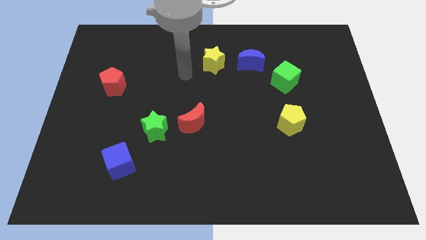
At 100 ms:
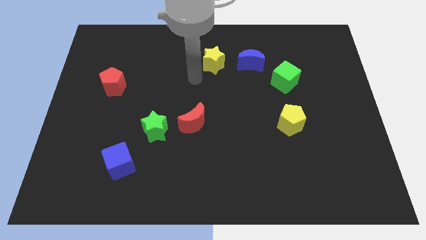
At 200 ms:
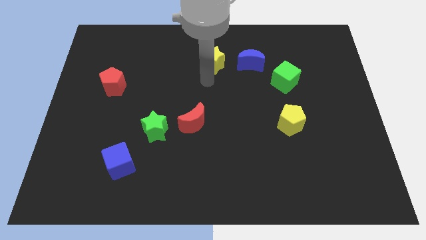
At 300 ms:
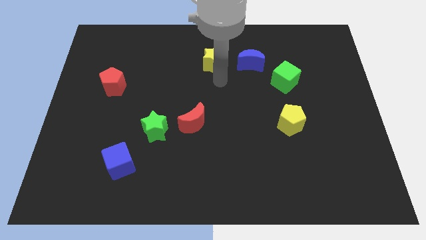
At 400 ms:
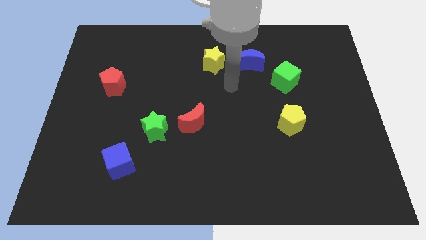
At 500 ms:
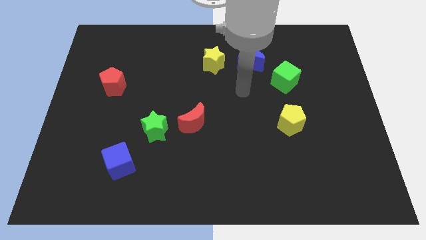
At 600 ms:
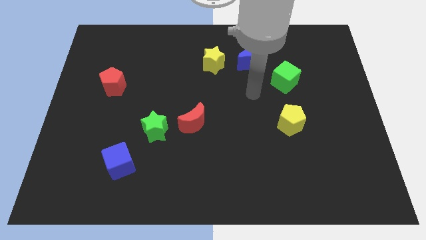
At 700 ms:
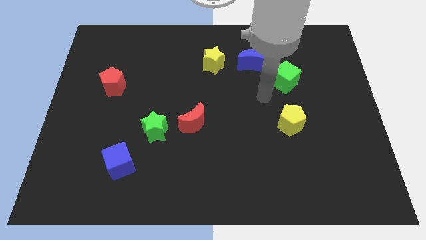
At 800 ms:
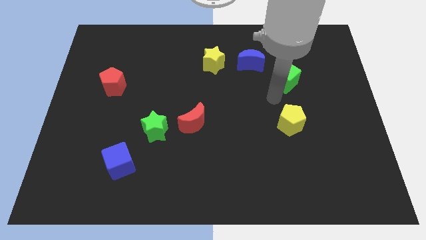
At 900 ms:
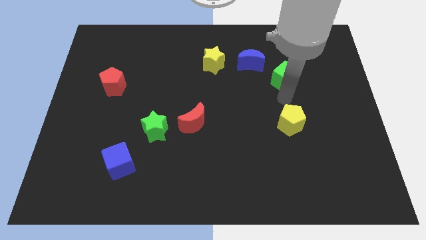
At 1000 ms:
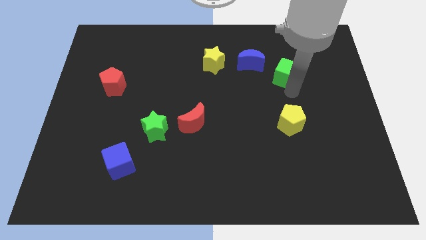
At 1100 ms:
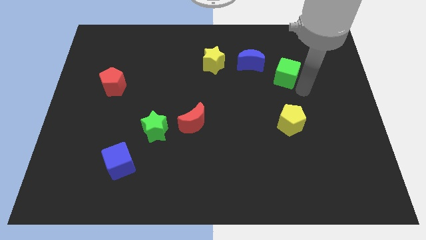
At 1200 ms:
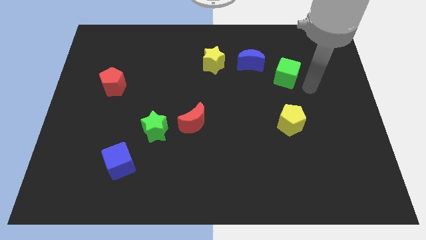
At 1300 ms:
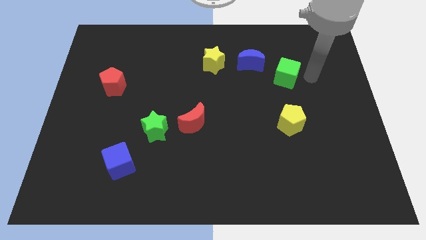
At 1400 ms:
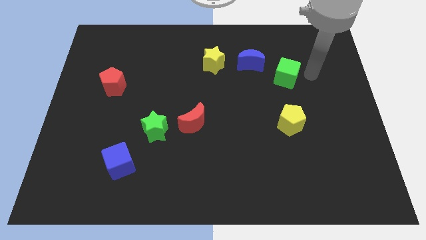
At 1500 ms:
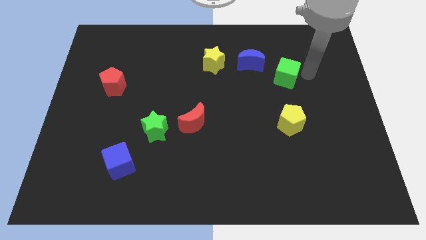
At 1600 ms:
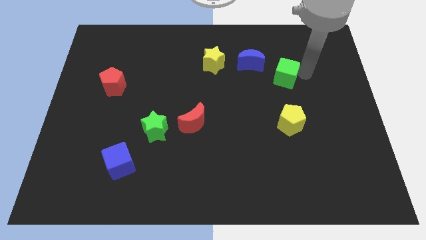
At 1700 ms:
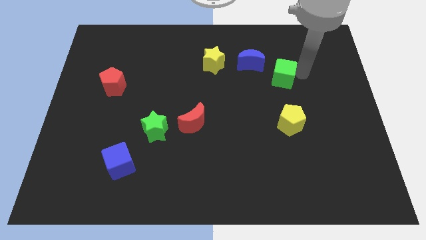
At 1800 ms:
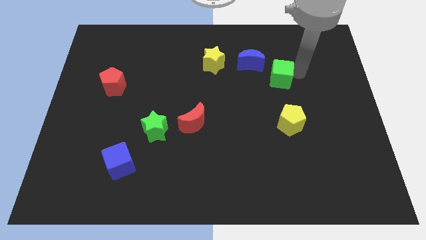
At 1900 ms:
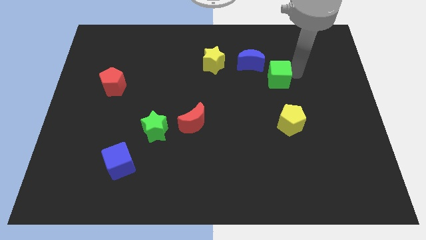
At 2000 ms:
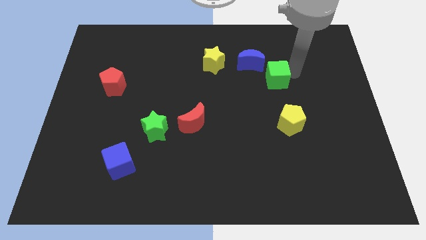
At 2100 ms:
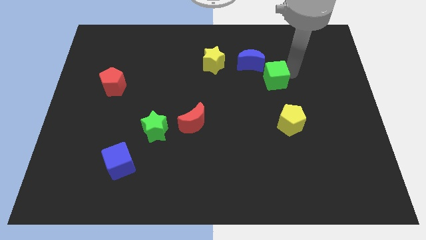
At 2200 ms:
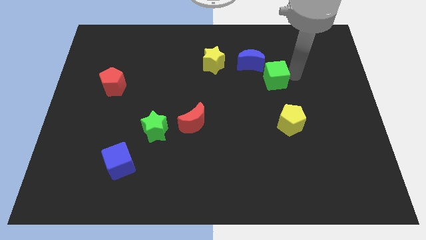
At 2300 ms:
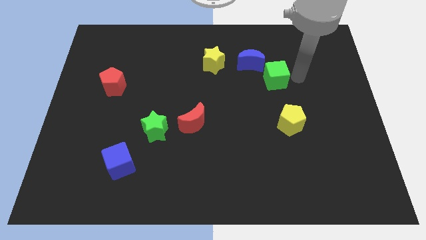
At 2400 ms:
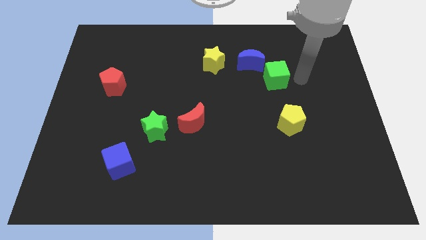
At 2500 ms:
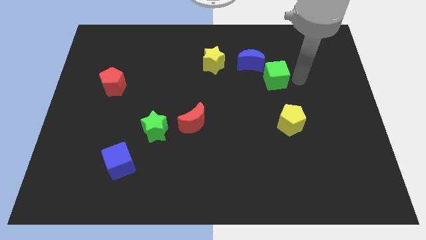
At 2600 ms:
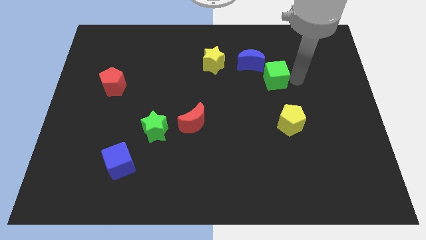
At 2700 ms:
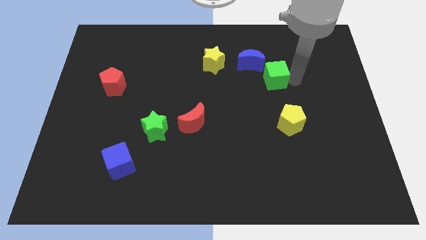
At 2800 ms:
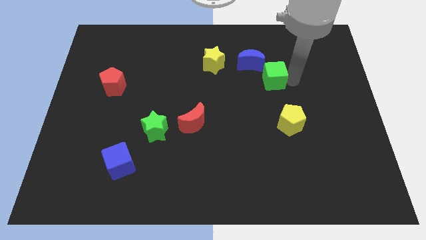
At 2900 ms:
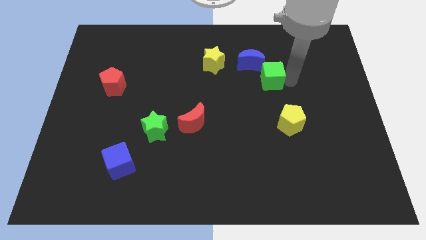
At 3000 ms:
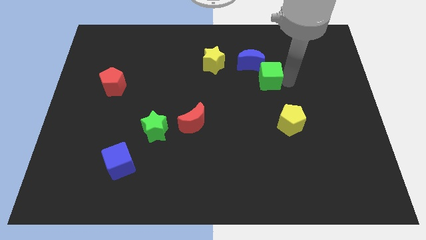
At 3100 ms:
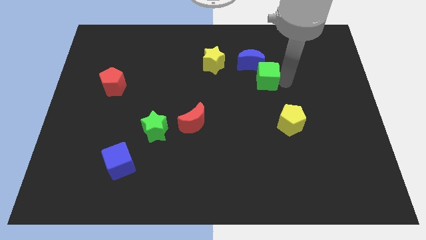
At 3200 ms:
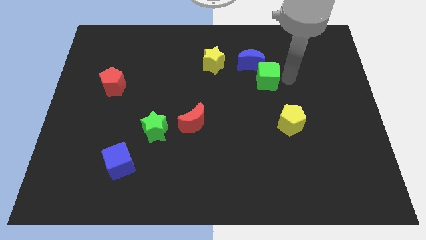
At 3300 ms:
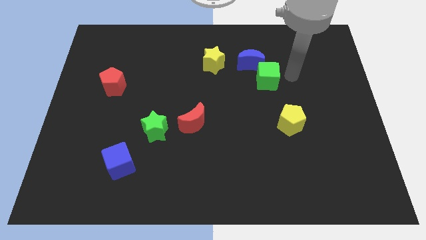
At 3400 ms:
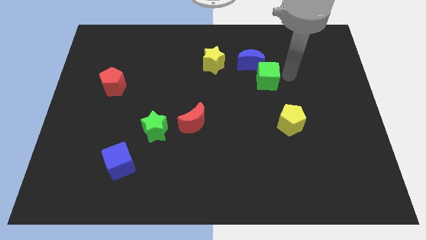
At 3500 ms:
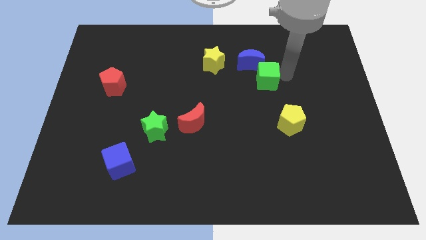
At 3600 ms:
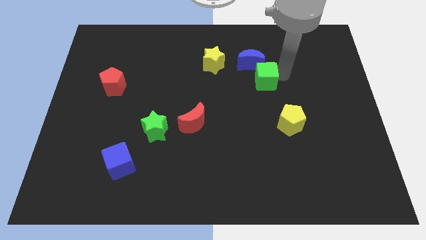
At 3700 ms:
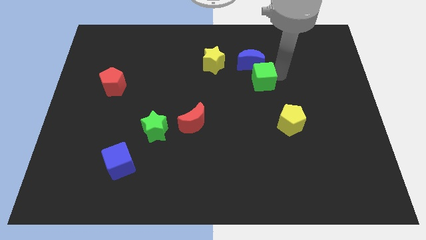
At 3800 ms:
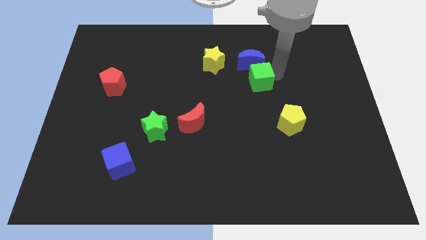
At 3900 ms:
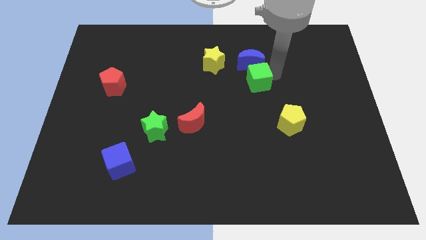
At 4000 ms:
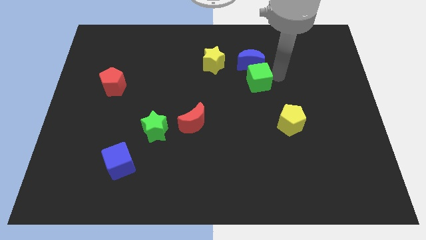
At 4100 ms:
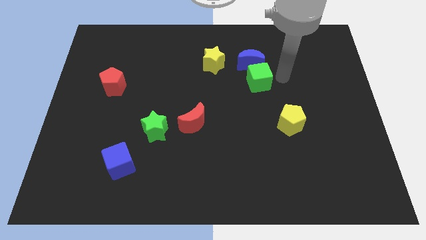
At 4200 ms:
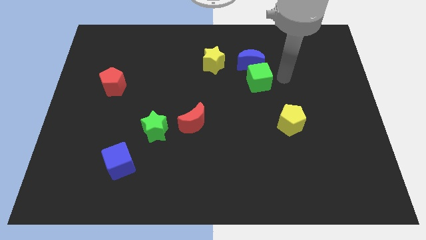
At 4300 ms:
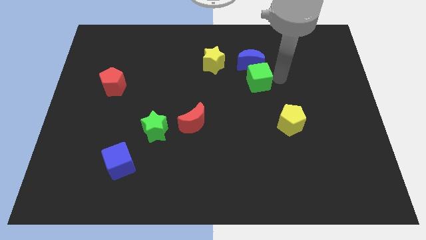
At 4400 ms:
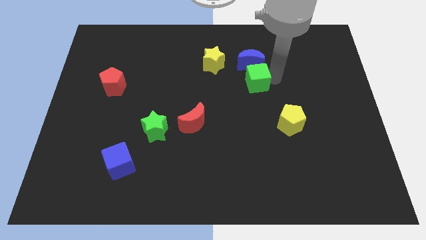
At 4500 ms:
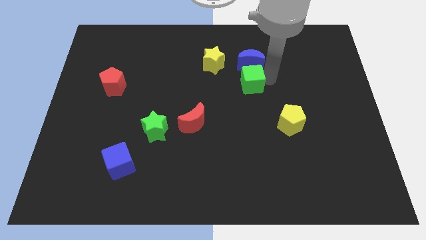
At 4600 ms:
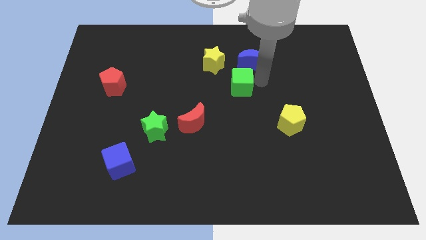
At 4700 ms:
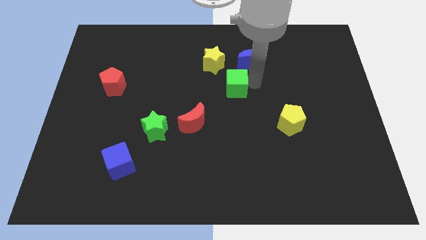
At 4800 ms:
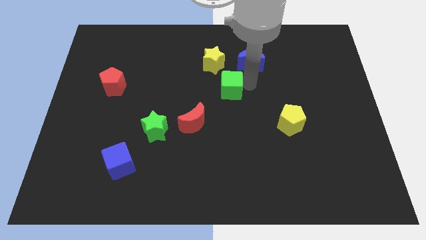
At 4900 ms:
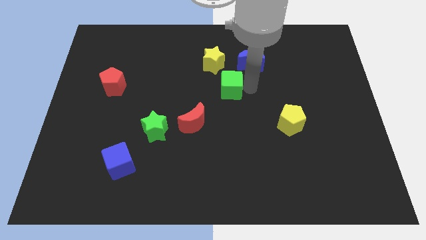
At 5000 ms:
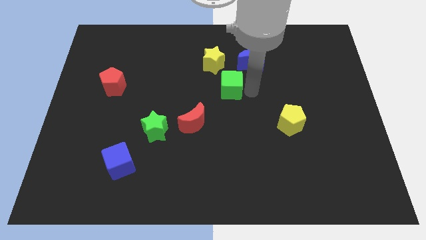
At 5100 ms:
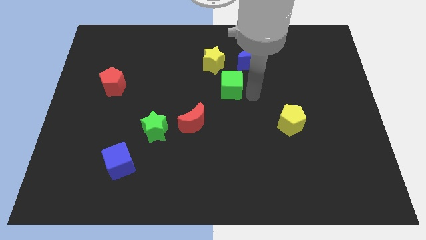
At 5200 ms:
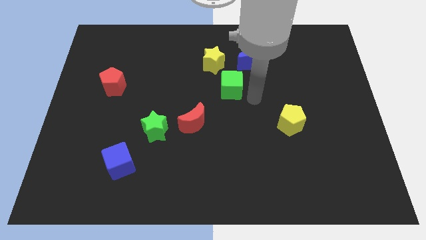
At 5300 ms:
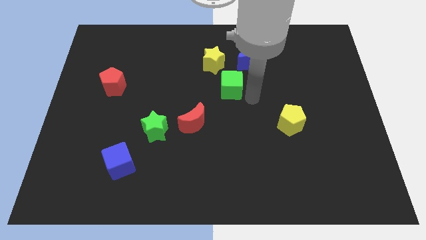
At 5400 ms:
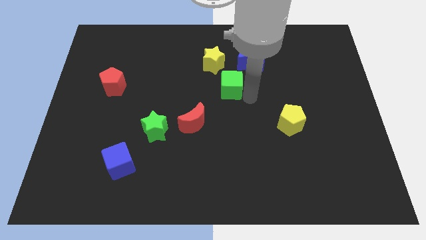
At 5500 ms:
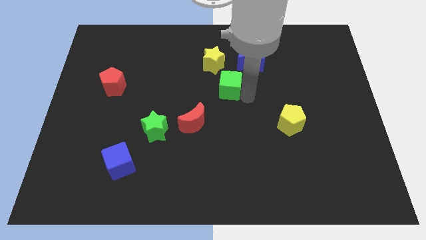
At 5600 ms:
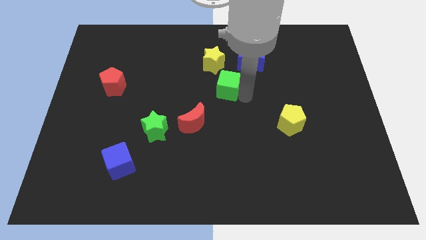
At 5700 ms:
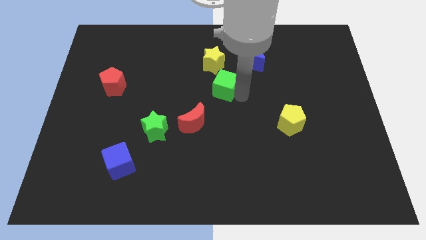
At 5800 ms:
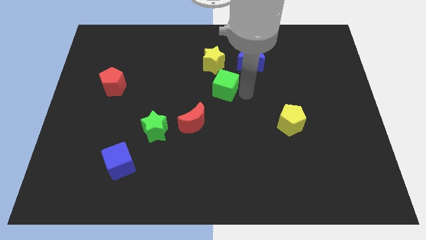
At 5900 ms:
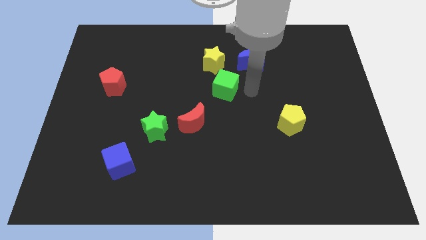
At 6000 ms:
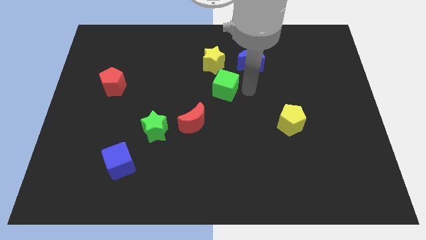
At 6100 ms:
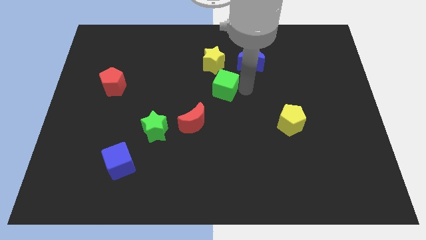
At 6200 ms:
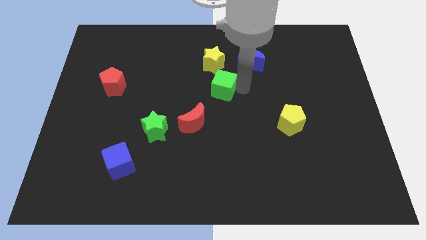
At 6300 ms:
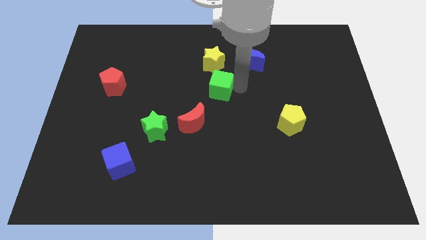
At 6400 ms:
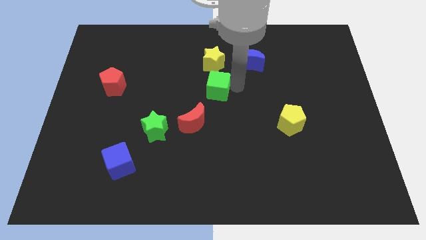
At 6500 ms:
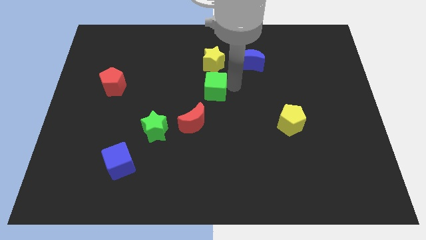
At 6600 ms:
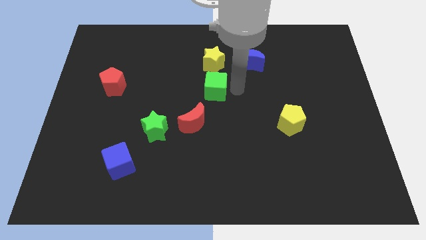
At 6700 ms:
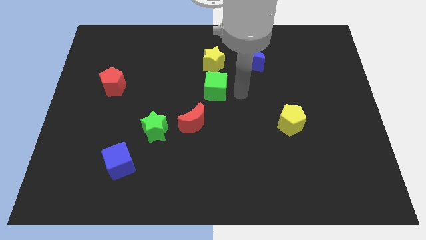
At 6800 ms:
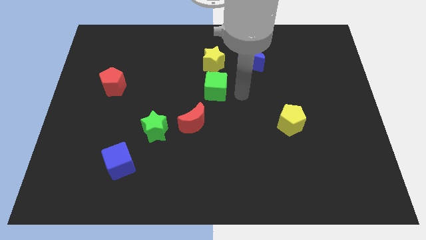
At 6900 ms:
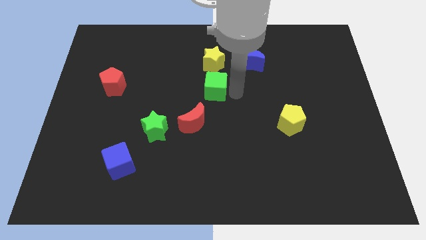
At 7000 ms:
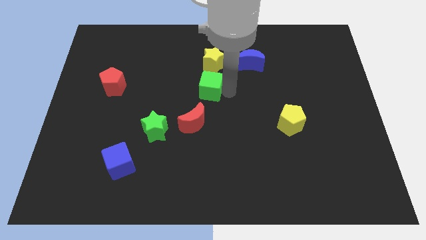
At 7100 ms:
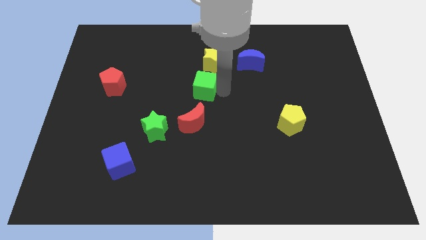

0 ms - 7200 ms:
slide the green cube left

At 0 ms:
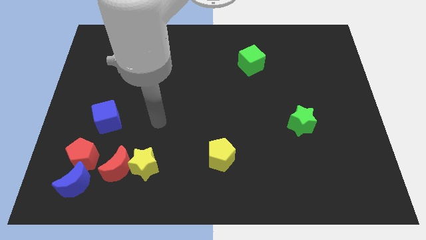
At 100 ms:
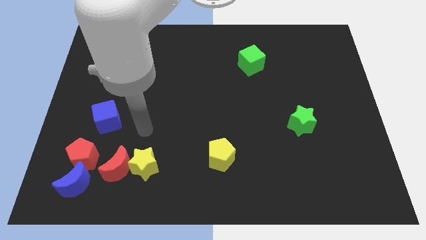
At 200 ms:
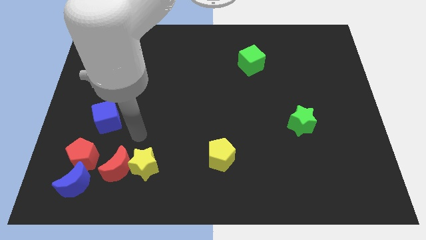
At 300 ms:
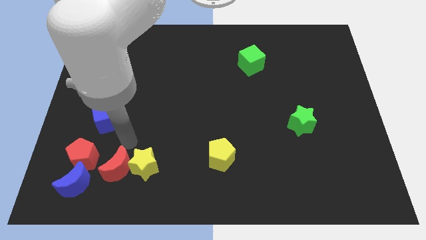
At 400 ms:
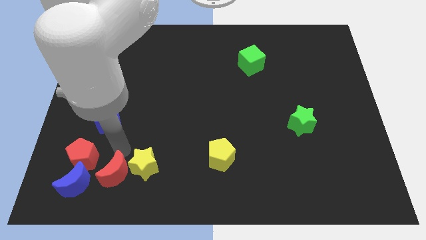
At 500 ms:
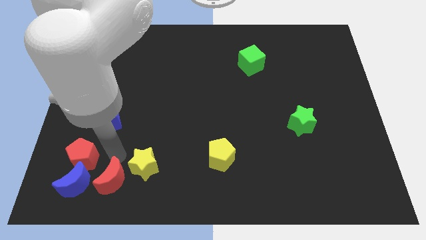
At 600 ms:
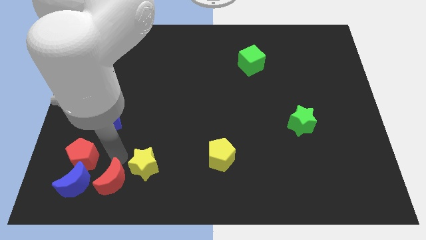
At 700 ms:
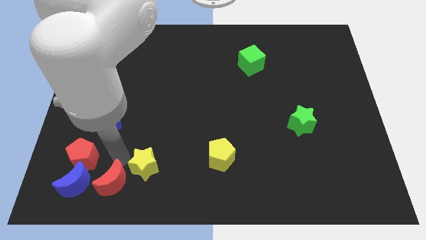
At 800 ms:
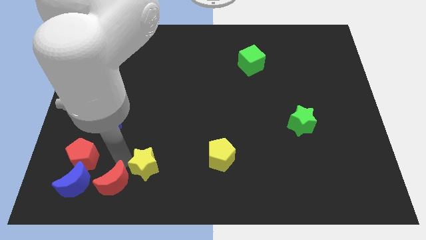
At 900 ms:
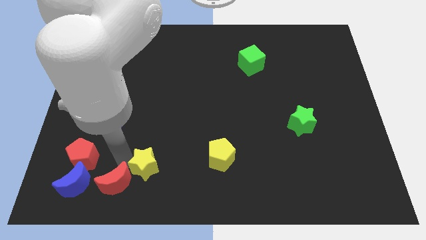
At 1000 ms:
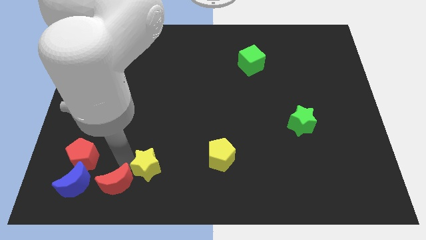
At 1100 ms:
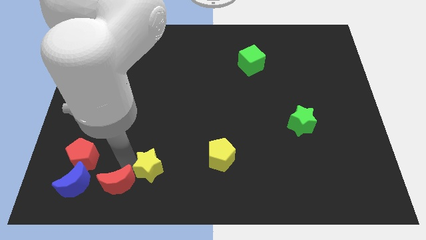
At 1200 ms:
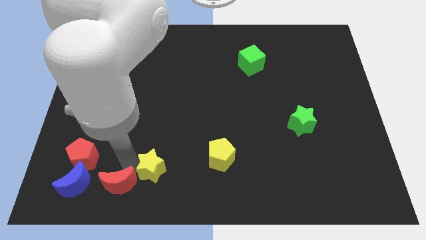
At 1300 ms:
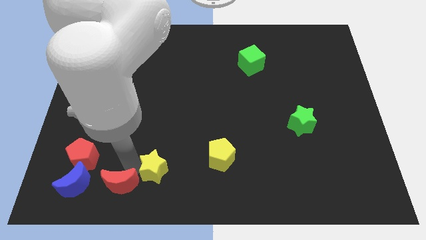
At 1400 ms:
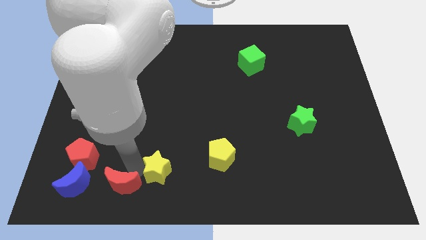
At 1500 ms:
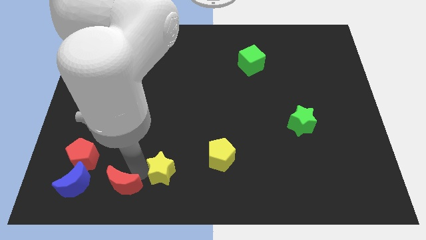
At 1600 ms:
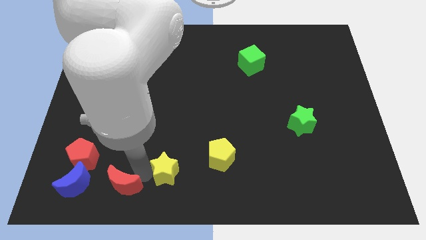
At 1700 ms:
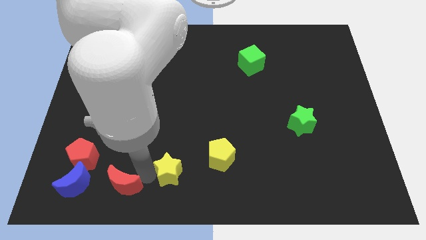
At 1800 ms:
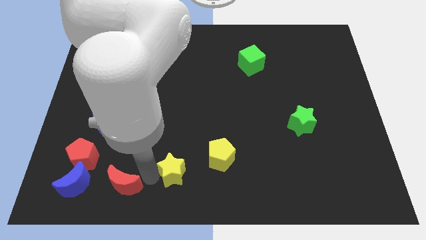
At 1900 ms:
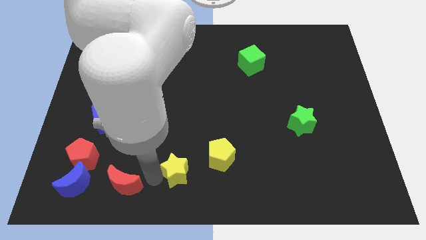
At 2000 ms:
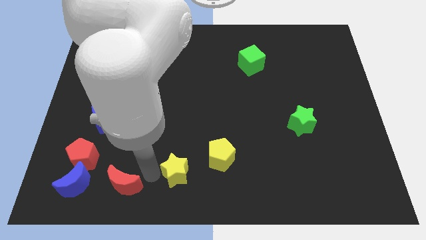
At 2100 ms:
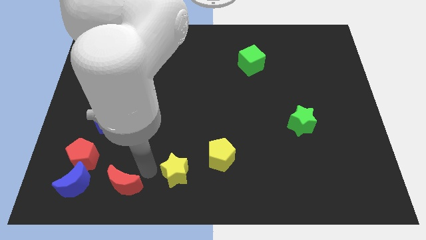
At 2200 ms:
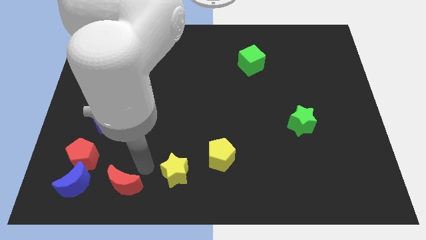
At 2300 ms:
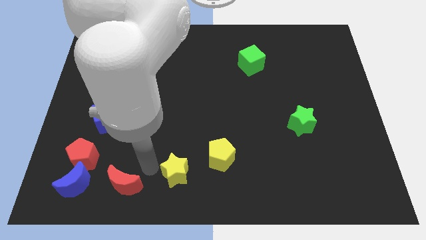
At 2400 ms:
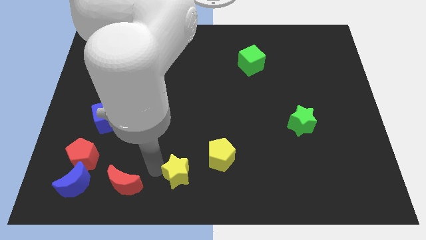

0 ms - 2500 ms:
push the yellow star a little bit right
